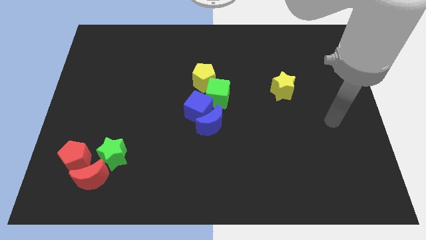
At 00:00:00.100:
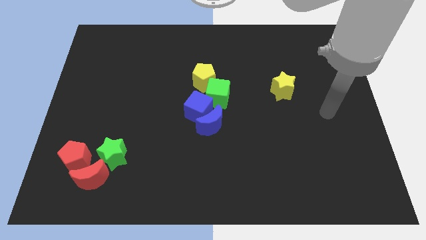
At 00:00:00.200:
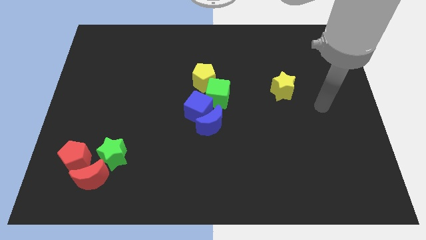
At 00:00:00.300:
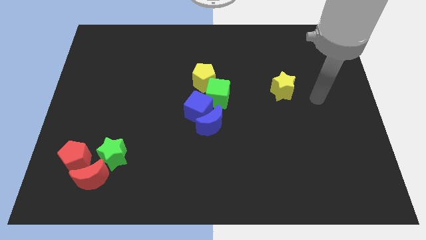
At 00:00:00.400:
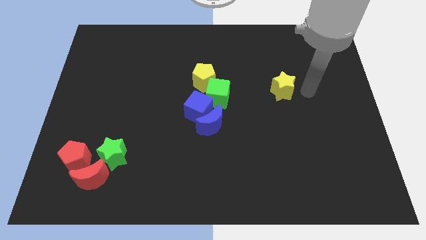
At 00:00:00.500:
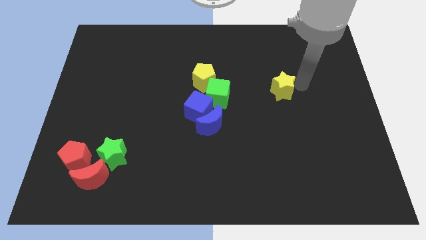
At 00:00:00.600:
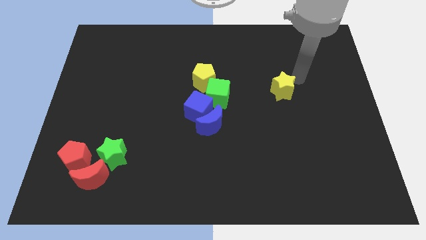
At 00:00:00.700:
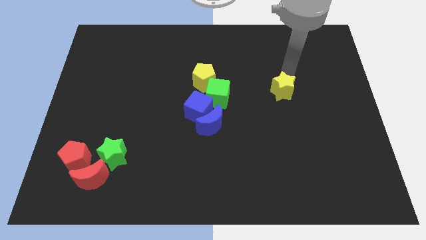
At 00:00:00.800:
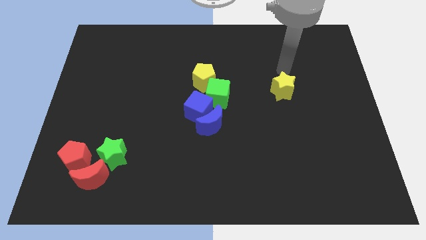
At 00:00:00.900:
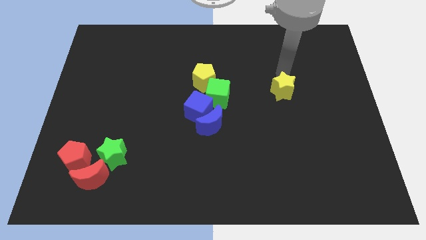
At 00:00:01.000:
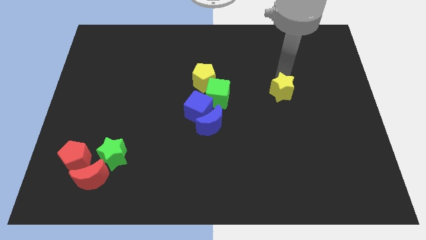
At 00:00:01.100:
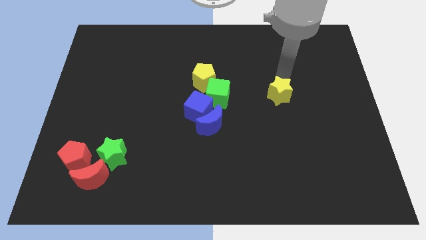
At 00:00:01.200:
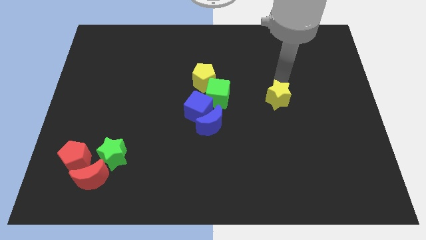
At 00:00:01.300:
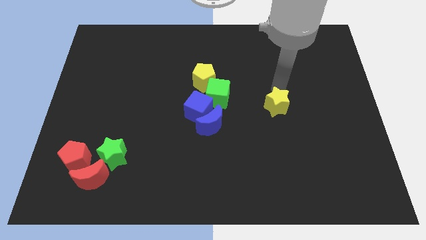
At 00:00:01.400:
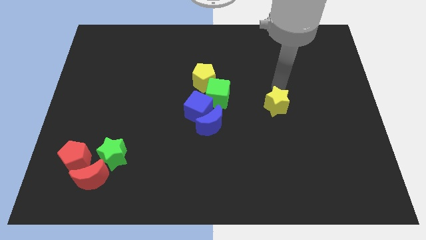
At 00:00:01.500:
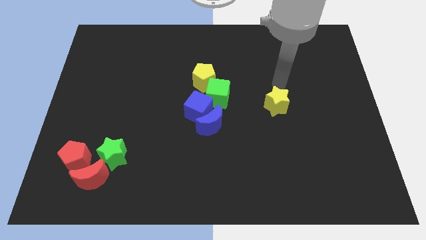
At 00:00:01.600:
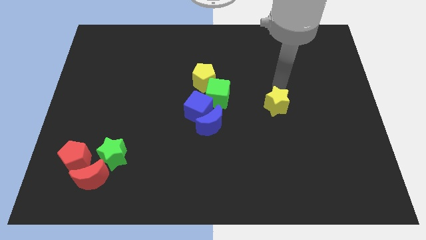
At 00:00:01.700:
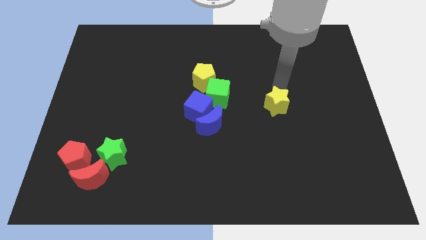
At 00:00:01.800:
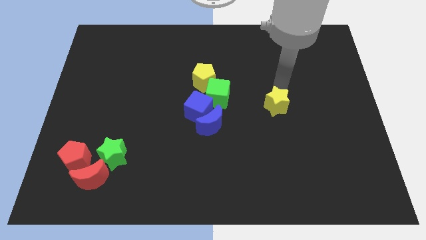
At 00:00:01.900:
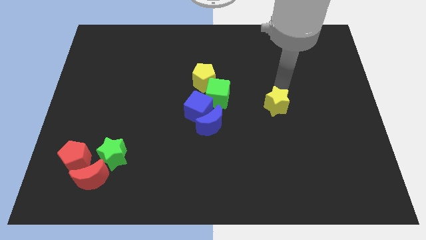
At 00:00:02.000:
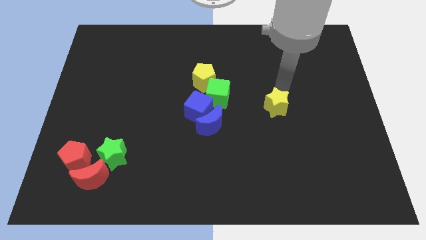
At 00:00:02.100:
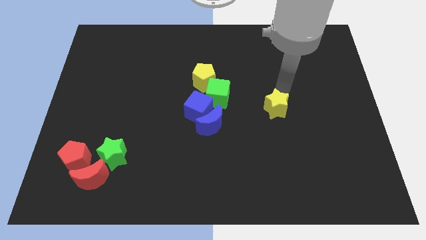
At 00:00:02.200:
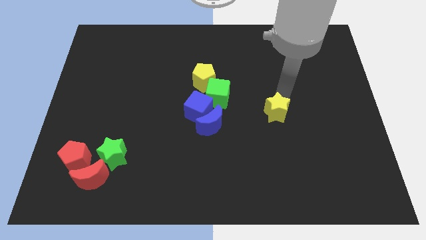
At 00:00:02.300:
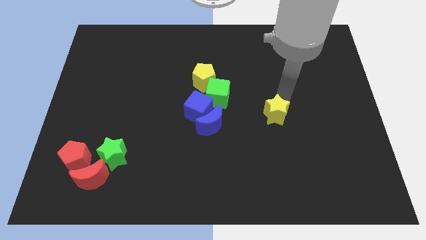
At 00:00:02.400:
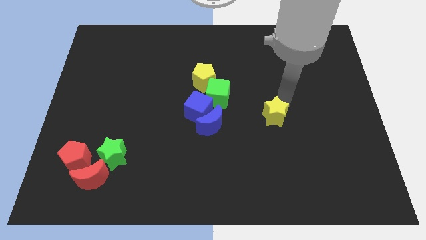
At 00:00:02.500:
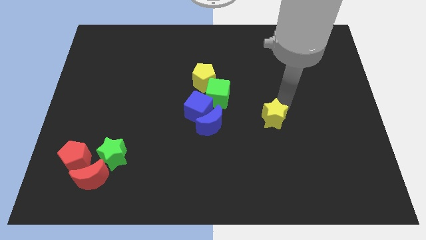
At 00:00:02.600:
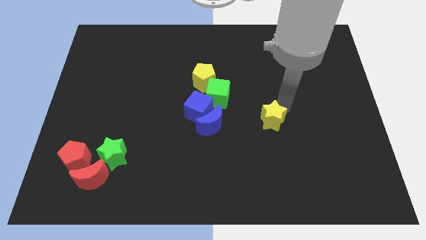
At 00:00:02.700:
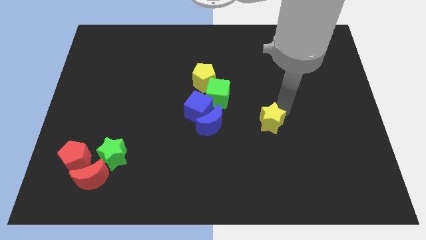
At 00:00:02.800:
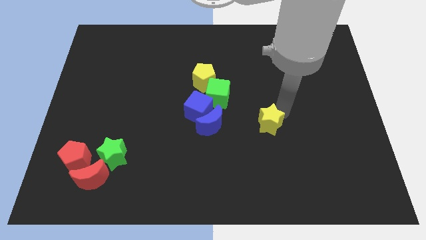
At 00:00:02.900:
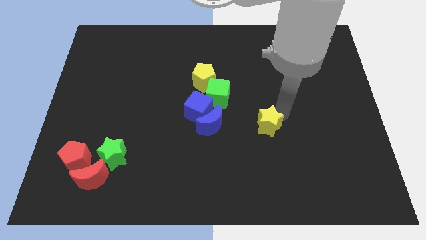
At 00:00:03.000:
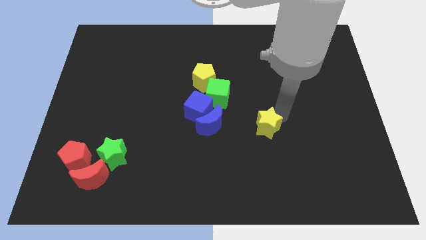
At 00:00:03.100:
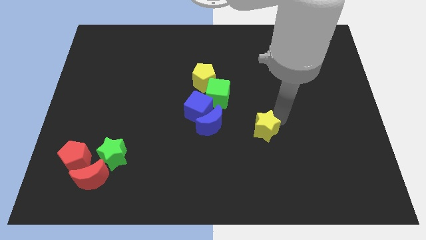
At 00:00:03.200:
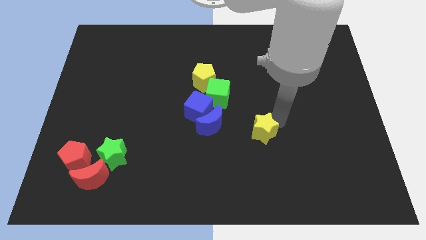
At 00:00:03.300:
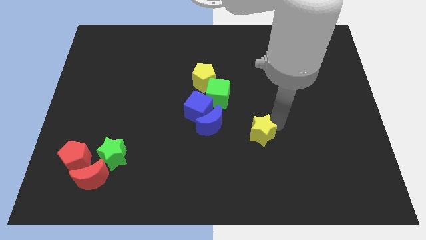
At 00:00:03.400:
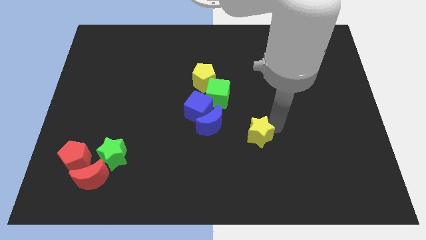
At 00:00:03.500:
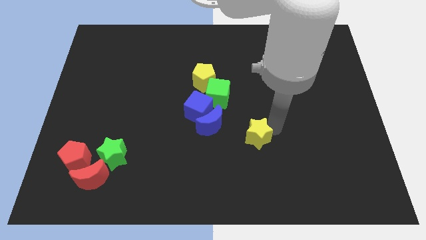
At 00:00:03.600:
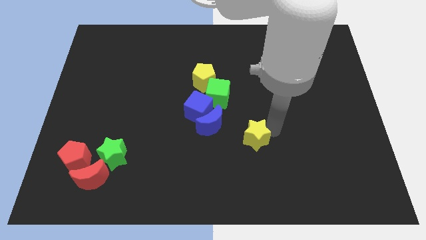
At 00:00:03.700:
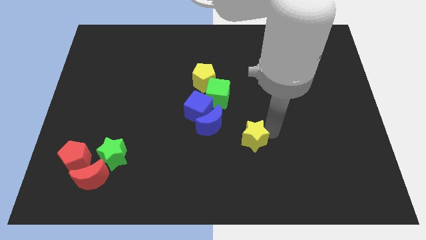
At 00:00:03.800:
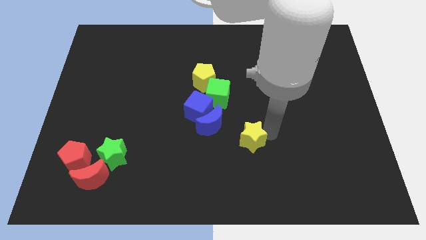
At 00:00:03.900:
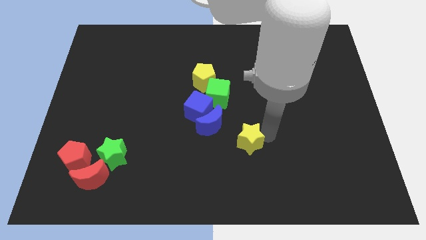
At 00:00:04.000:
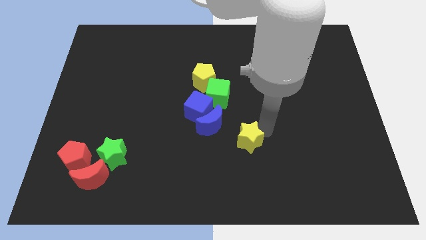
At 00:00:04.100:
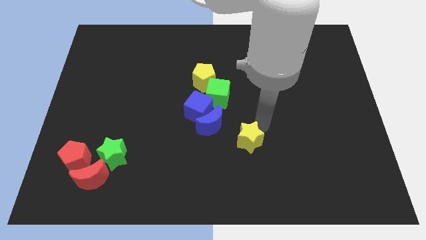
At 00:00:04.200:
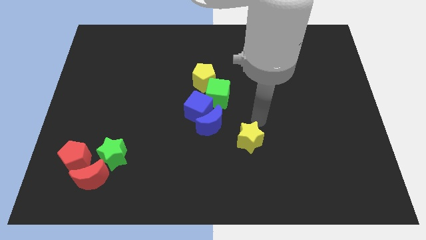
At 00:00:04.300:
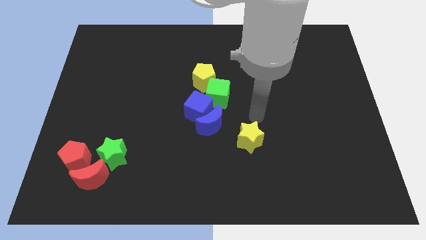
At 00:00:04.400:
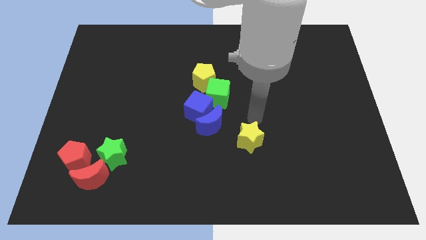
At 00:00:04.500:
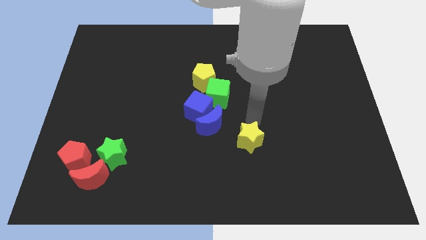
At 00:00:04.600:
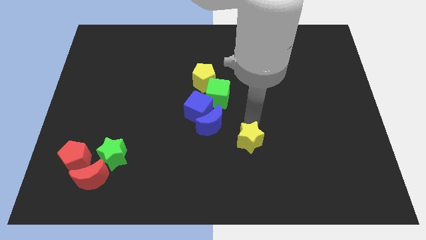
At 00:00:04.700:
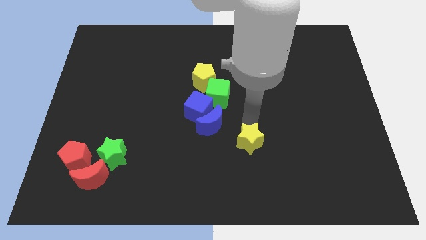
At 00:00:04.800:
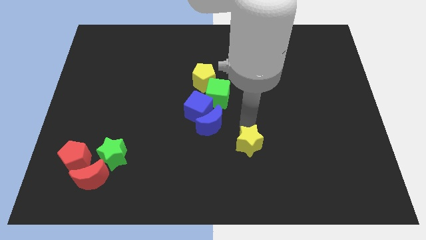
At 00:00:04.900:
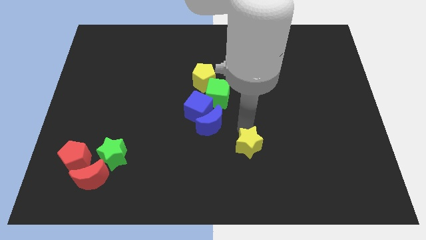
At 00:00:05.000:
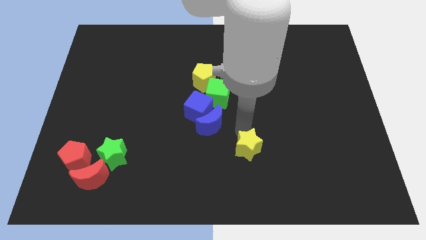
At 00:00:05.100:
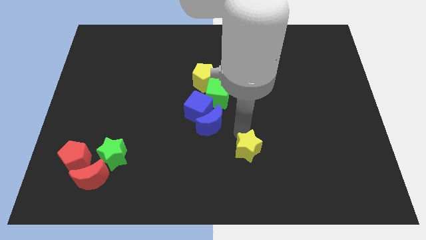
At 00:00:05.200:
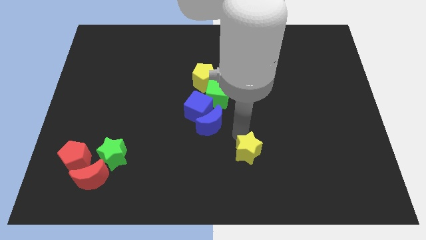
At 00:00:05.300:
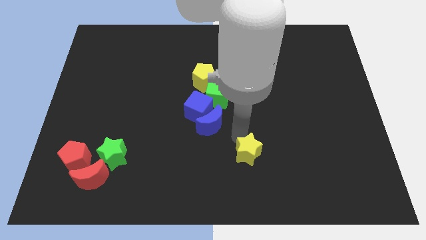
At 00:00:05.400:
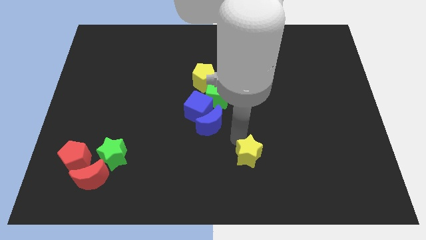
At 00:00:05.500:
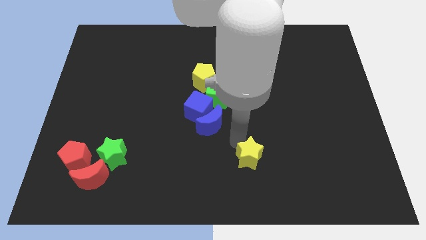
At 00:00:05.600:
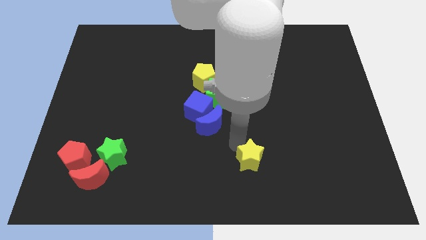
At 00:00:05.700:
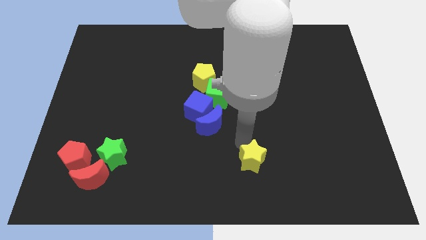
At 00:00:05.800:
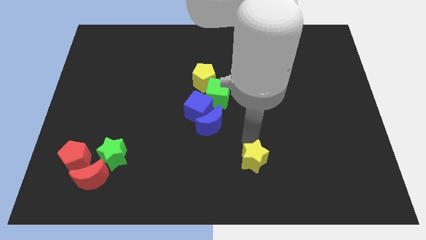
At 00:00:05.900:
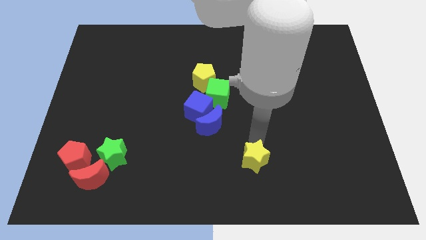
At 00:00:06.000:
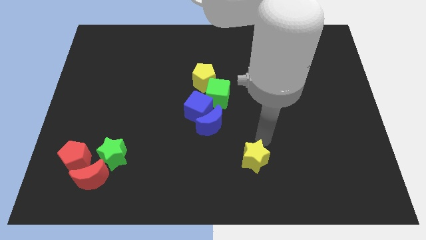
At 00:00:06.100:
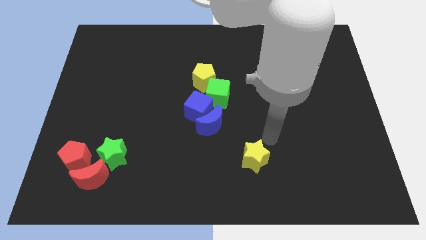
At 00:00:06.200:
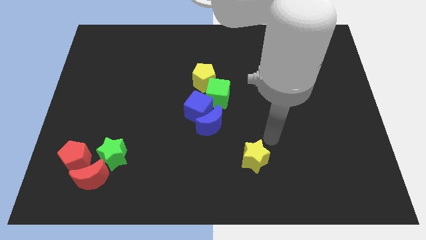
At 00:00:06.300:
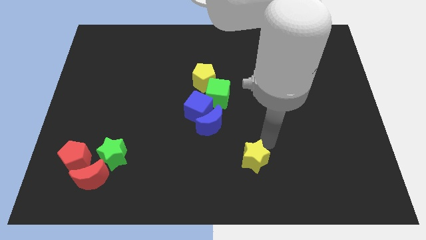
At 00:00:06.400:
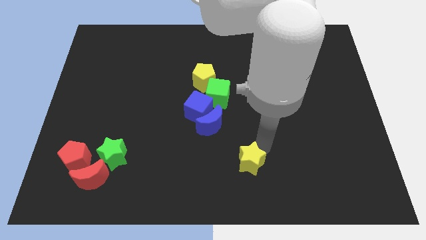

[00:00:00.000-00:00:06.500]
push the yellow star to the bottom
